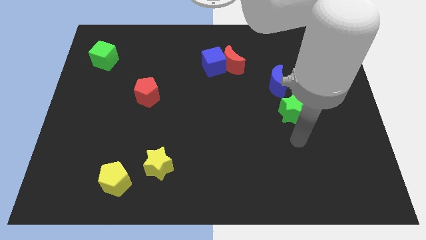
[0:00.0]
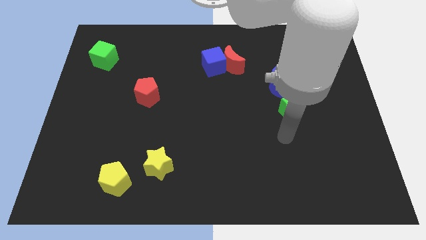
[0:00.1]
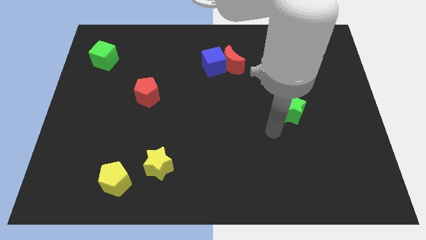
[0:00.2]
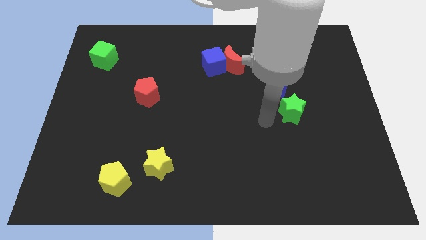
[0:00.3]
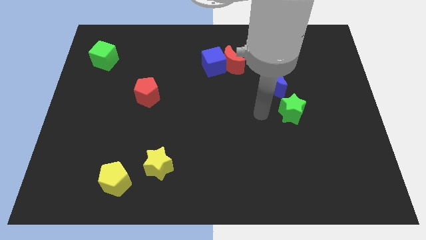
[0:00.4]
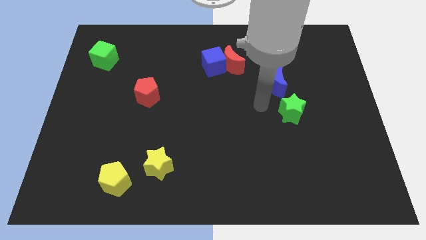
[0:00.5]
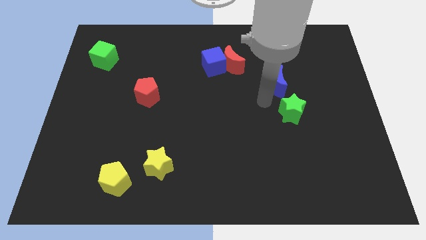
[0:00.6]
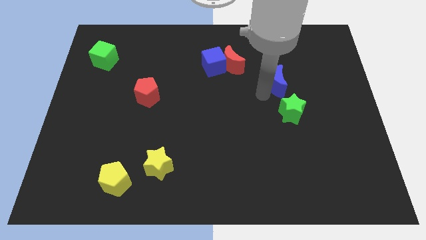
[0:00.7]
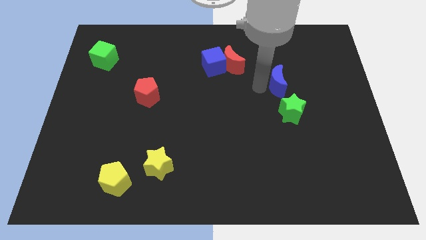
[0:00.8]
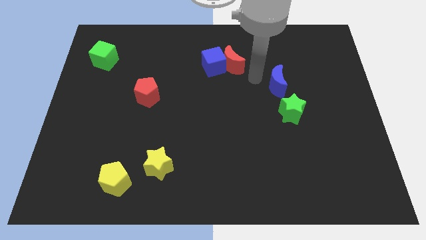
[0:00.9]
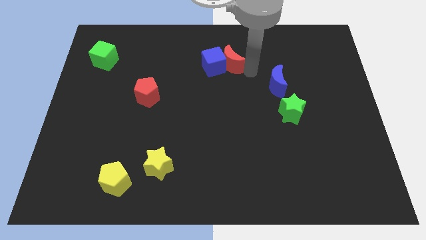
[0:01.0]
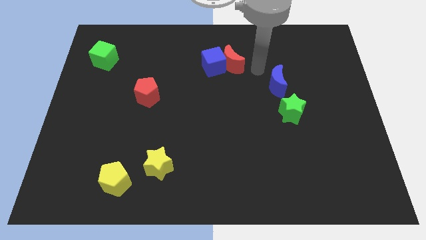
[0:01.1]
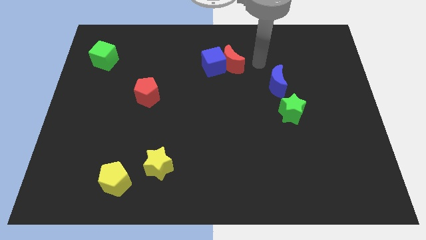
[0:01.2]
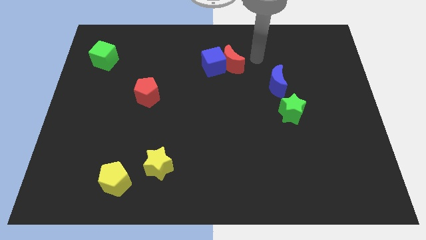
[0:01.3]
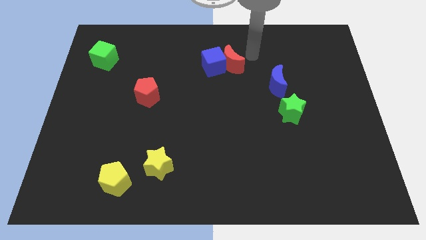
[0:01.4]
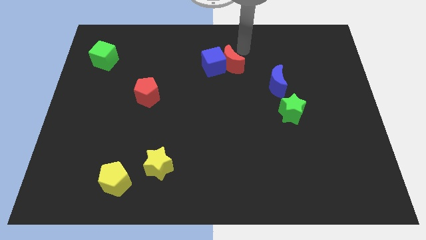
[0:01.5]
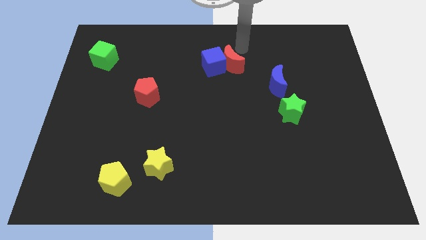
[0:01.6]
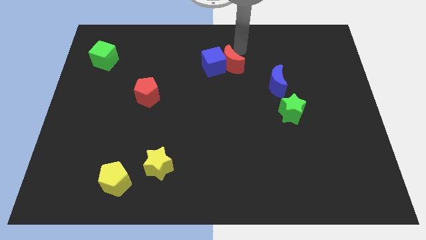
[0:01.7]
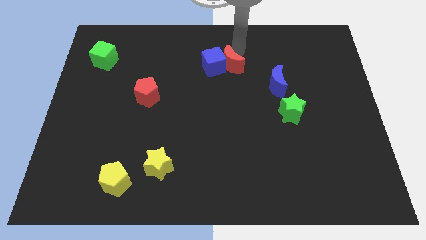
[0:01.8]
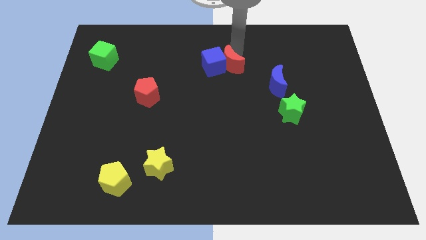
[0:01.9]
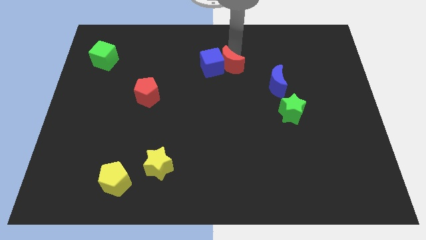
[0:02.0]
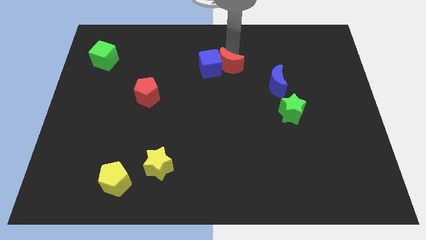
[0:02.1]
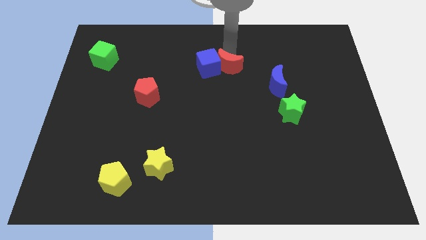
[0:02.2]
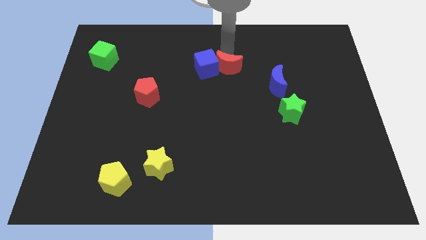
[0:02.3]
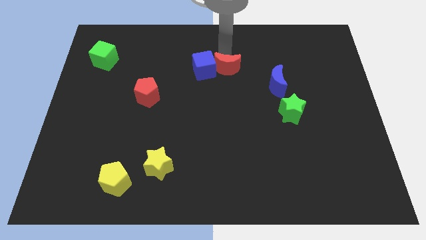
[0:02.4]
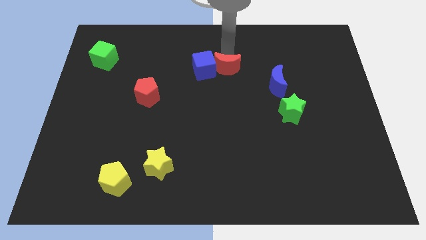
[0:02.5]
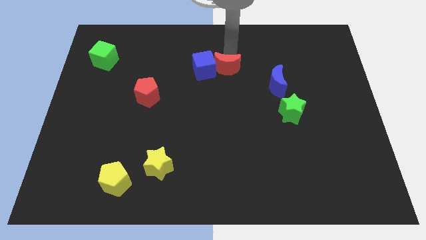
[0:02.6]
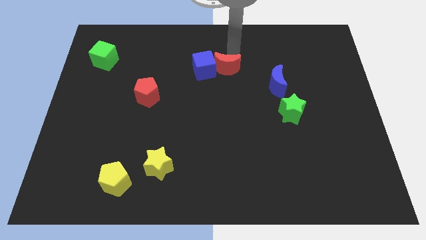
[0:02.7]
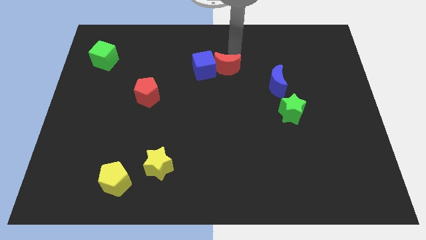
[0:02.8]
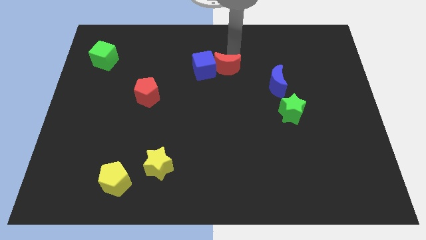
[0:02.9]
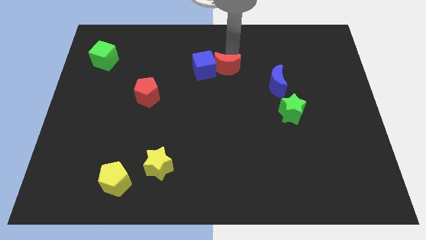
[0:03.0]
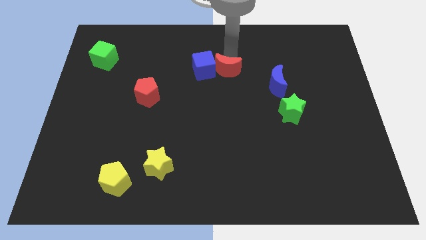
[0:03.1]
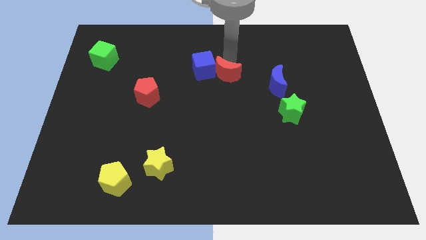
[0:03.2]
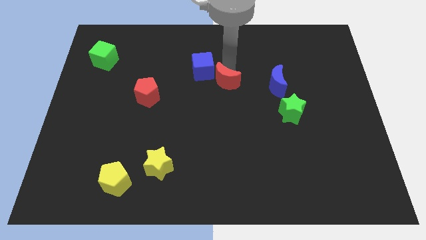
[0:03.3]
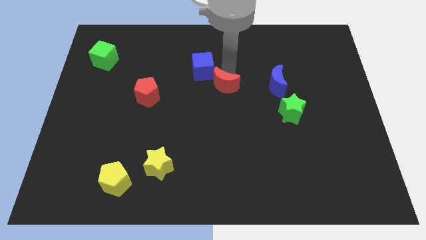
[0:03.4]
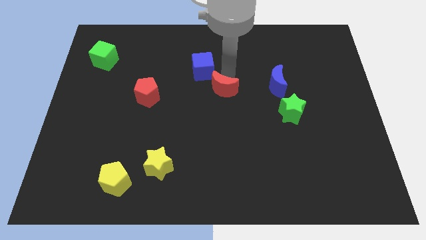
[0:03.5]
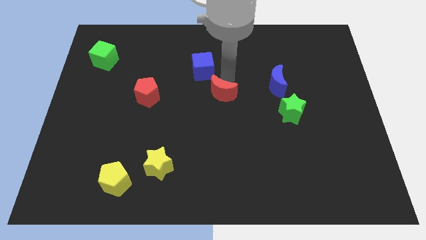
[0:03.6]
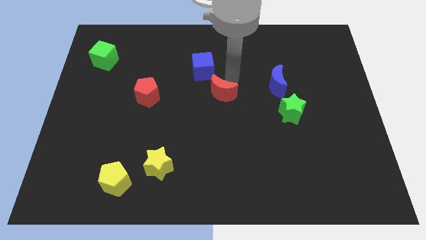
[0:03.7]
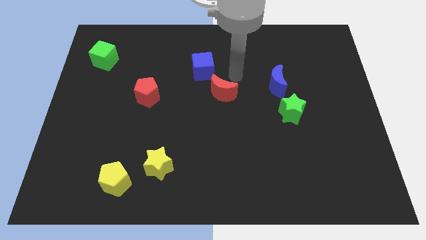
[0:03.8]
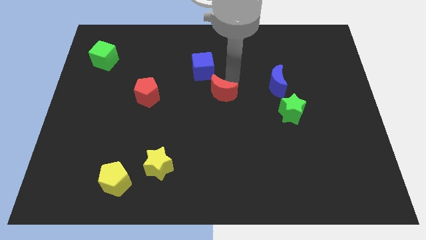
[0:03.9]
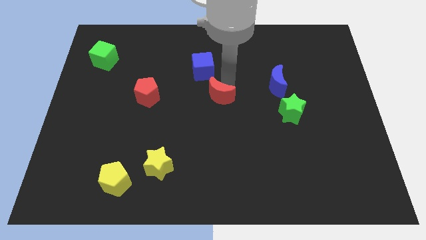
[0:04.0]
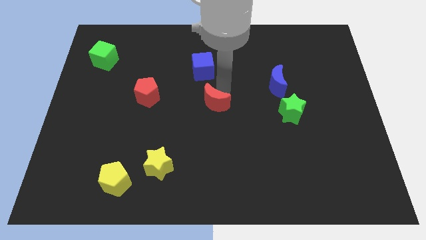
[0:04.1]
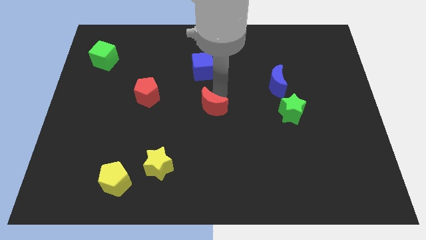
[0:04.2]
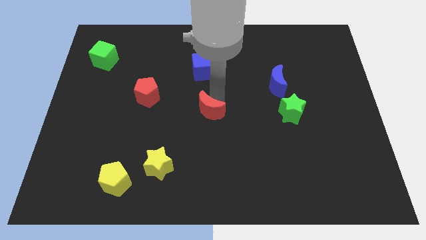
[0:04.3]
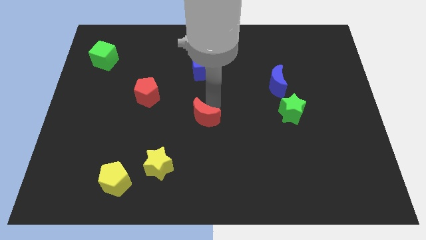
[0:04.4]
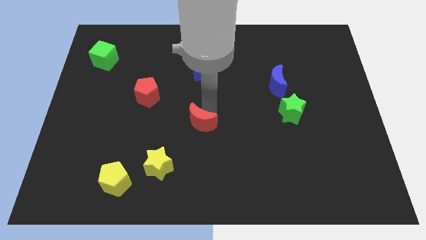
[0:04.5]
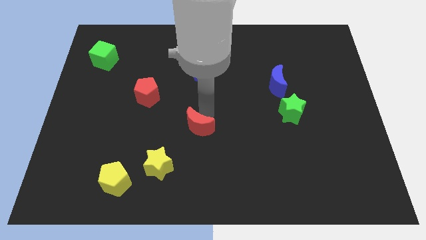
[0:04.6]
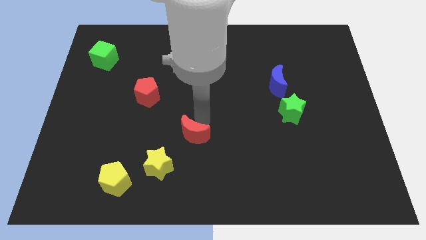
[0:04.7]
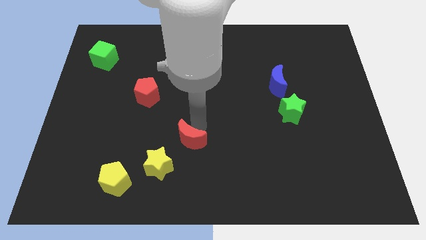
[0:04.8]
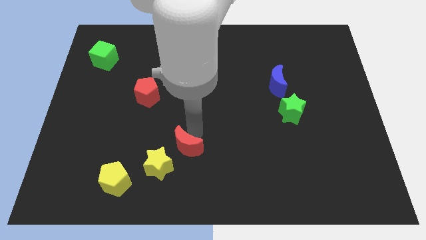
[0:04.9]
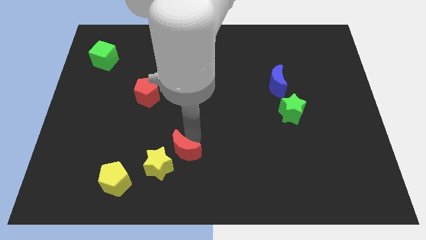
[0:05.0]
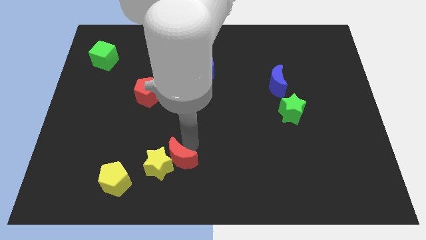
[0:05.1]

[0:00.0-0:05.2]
push the red moon towards the yellow star

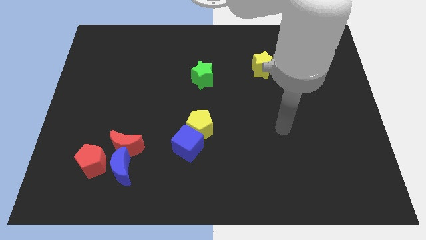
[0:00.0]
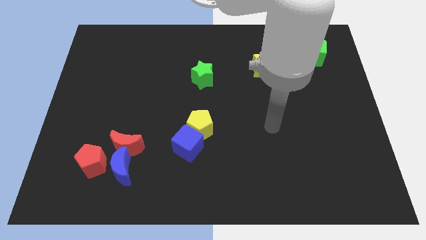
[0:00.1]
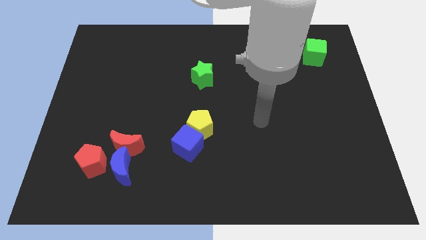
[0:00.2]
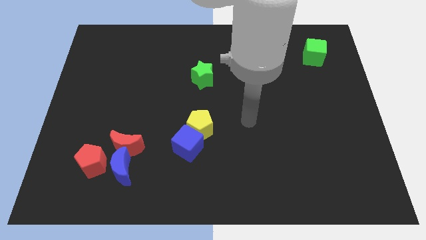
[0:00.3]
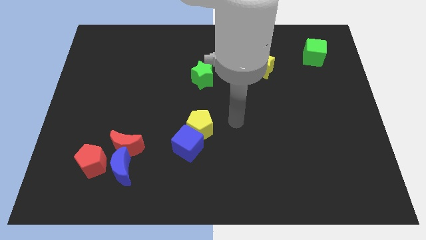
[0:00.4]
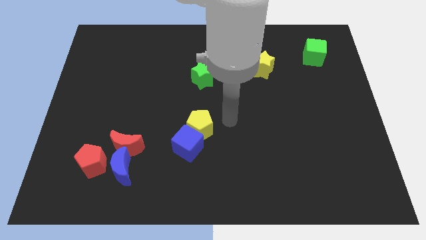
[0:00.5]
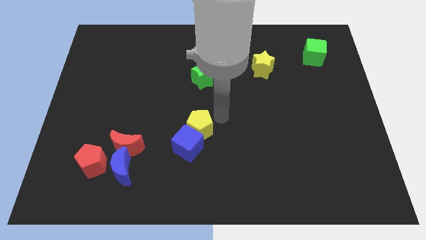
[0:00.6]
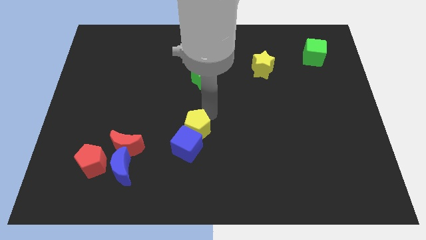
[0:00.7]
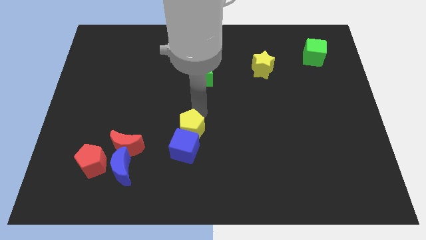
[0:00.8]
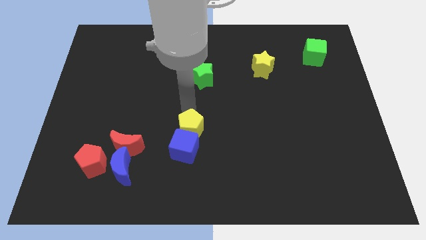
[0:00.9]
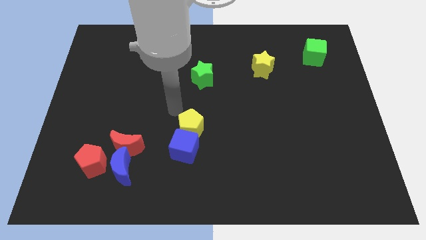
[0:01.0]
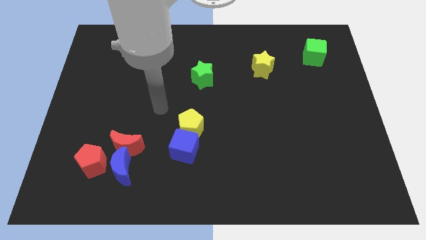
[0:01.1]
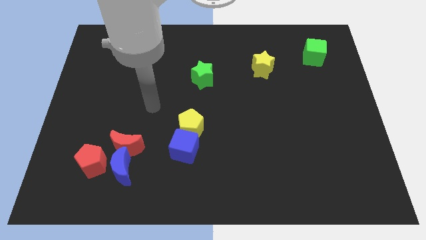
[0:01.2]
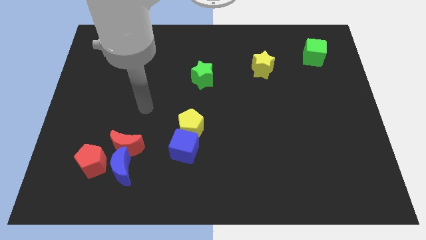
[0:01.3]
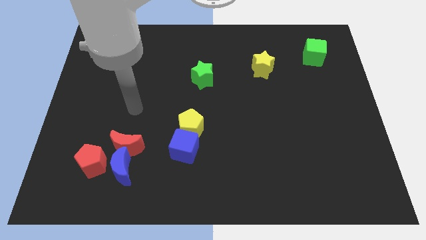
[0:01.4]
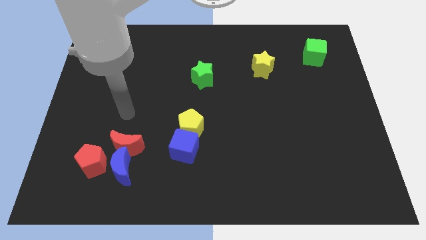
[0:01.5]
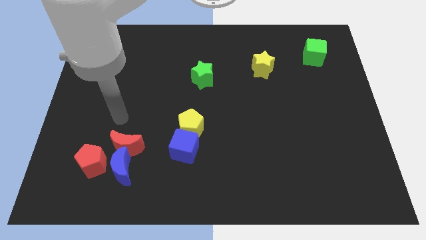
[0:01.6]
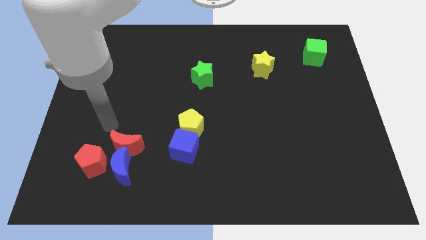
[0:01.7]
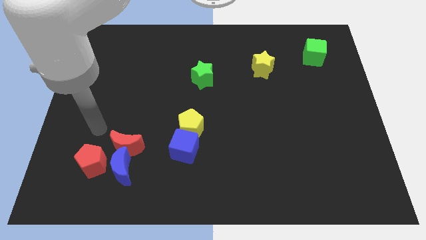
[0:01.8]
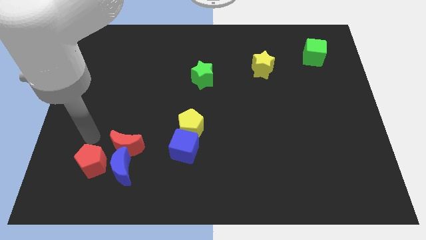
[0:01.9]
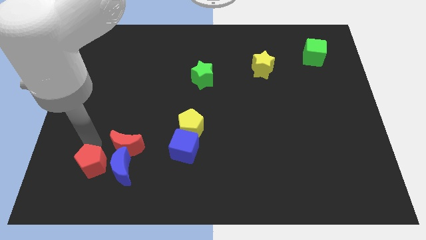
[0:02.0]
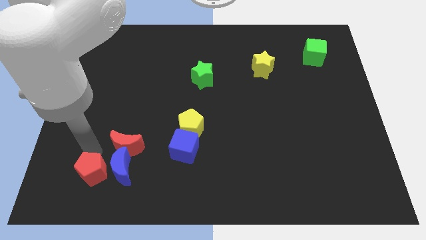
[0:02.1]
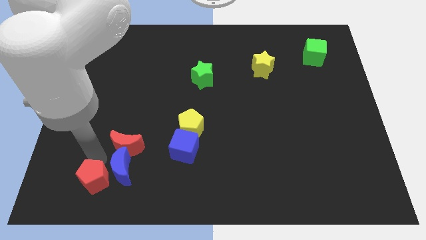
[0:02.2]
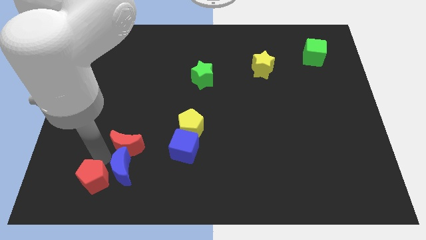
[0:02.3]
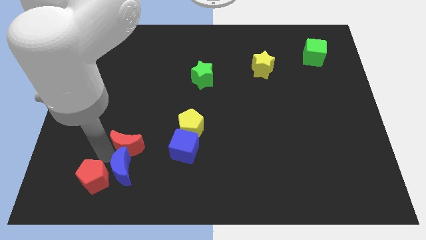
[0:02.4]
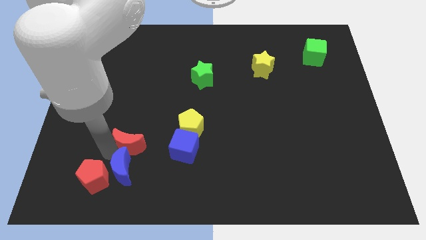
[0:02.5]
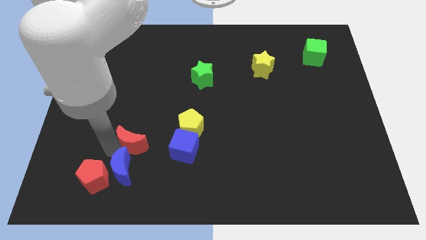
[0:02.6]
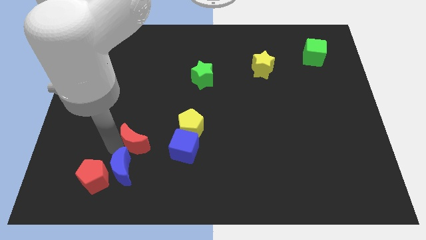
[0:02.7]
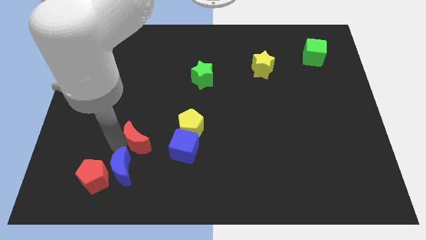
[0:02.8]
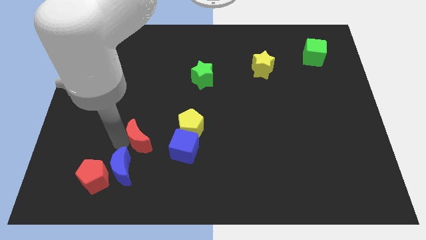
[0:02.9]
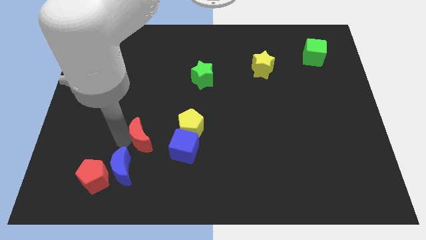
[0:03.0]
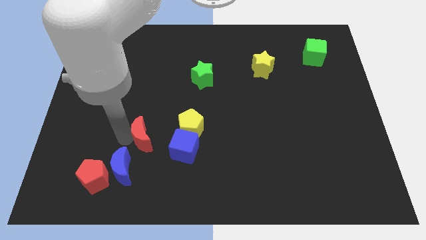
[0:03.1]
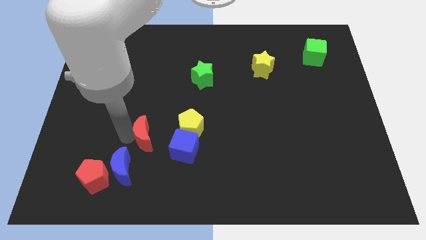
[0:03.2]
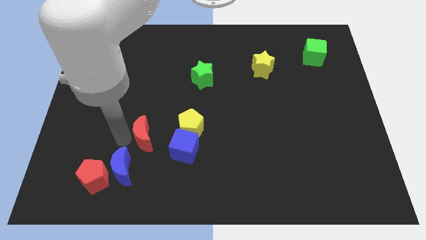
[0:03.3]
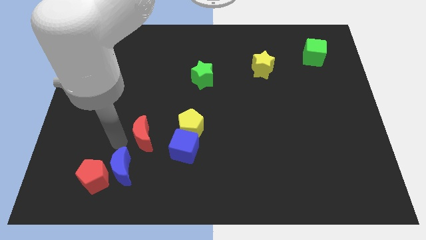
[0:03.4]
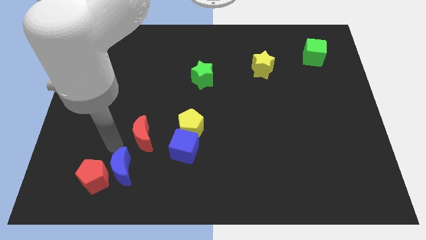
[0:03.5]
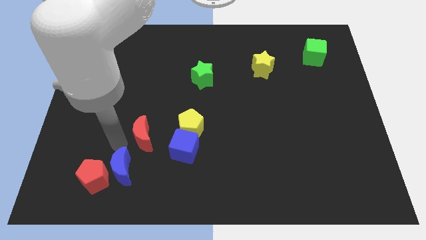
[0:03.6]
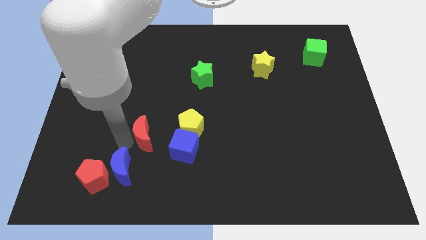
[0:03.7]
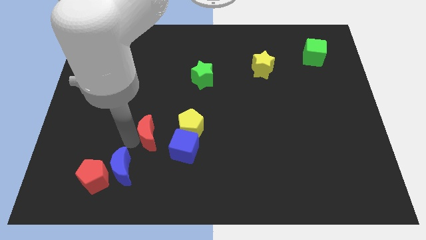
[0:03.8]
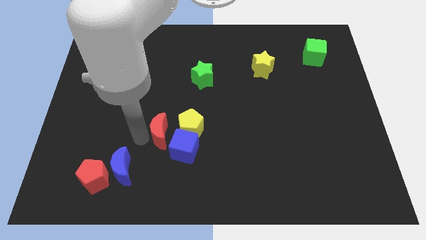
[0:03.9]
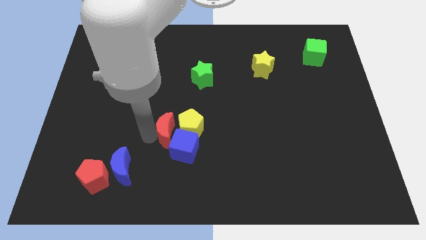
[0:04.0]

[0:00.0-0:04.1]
move the red moon to the yellow pentagon
